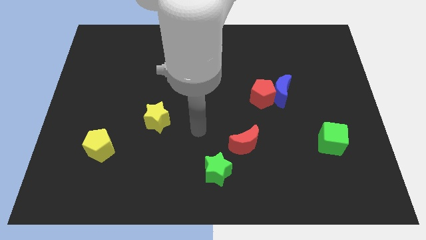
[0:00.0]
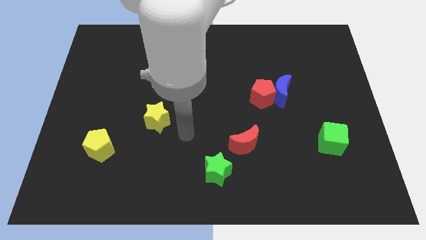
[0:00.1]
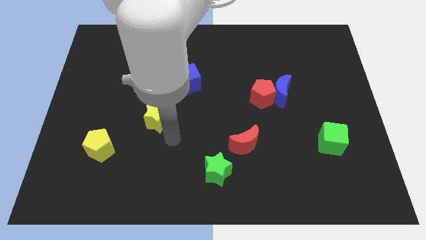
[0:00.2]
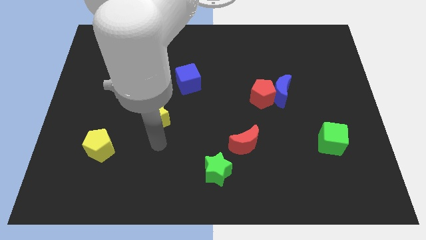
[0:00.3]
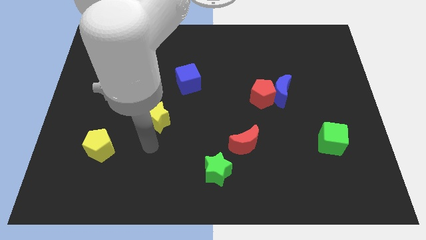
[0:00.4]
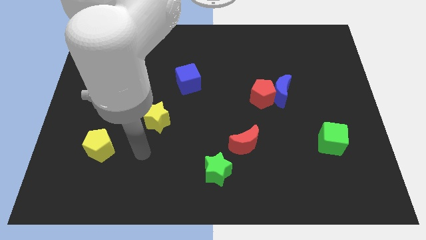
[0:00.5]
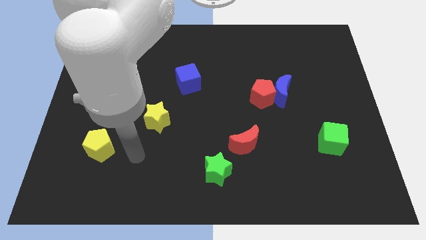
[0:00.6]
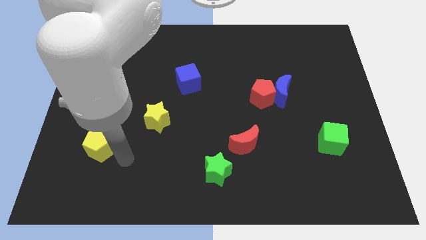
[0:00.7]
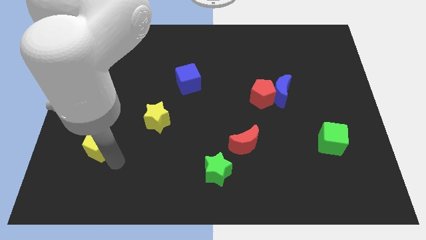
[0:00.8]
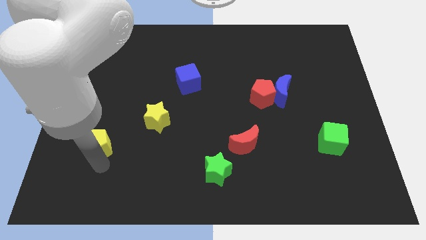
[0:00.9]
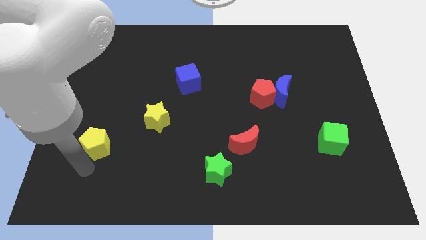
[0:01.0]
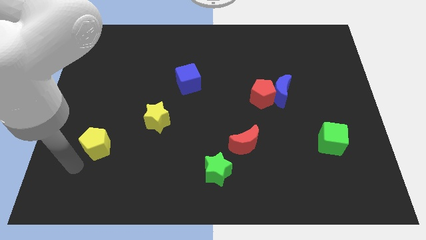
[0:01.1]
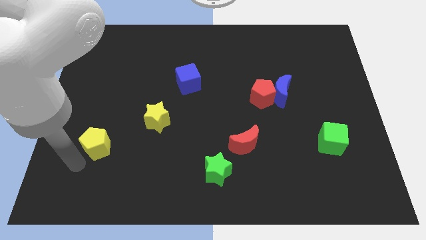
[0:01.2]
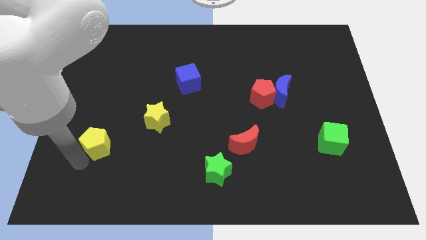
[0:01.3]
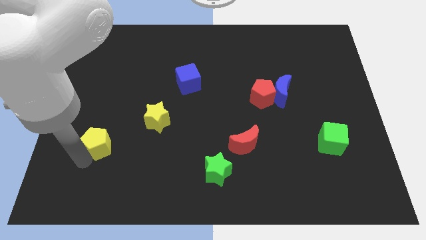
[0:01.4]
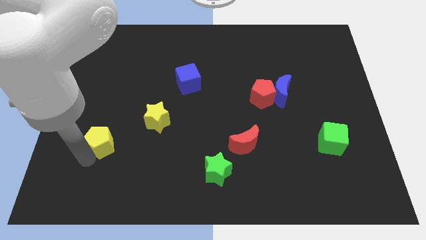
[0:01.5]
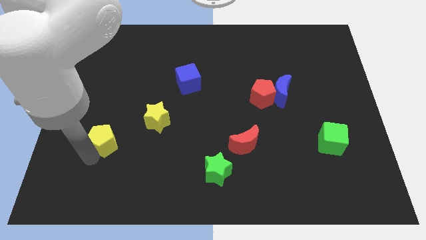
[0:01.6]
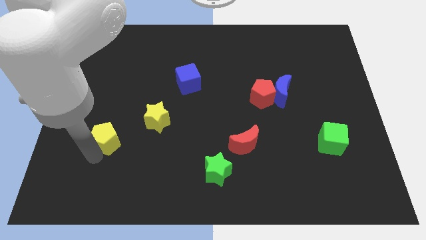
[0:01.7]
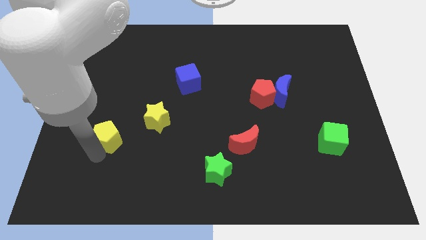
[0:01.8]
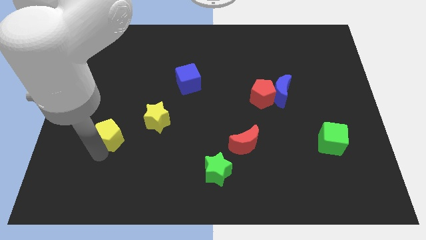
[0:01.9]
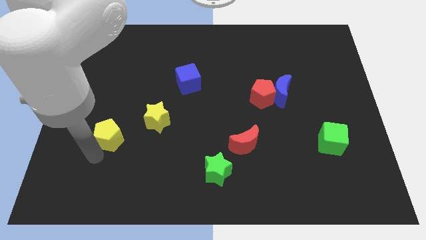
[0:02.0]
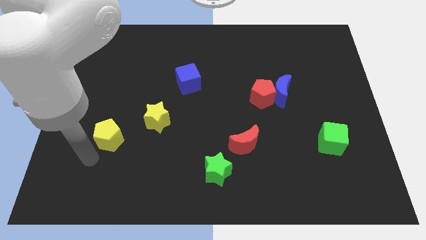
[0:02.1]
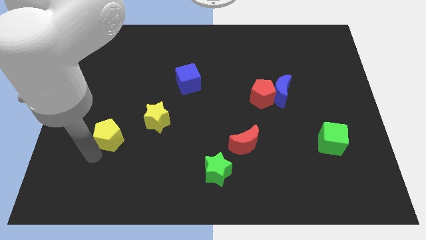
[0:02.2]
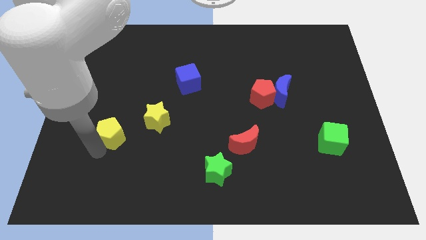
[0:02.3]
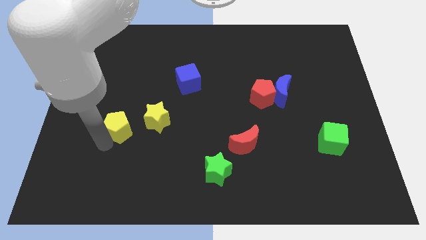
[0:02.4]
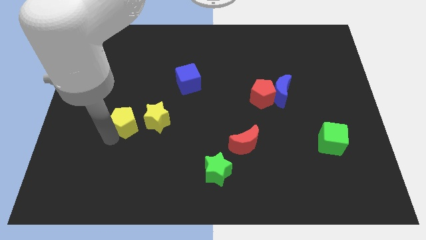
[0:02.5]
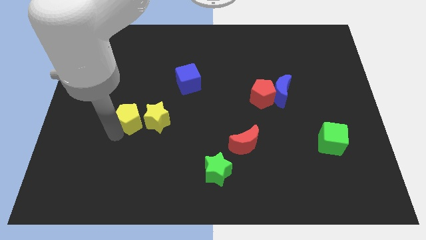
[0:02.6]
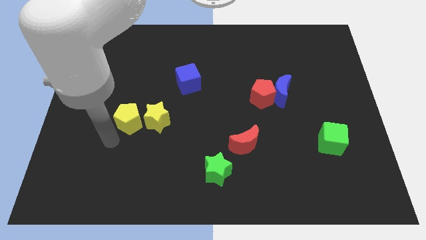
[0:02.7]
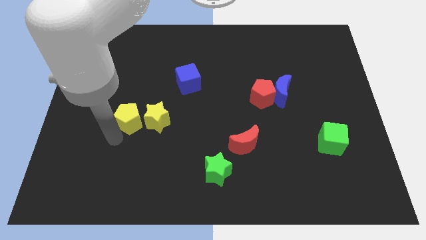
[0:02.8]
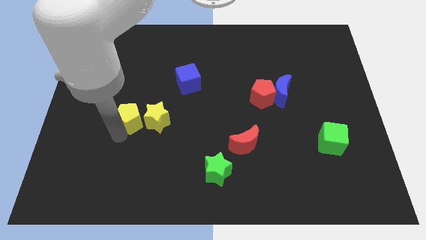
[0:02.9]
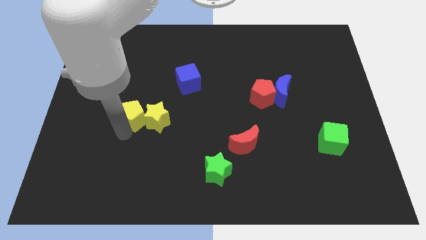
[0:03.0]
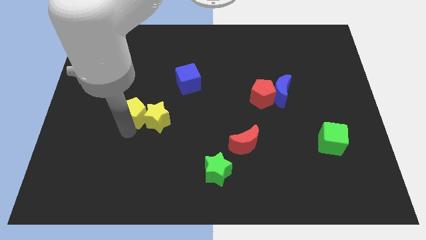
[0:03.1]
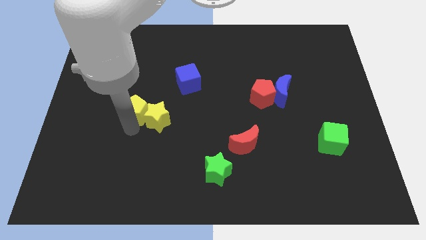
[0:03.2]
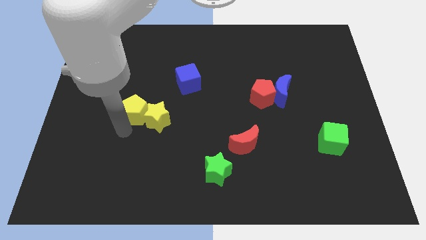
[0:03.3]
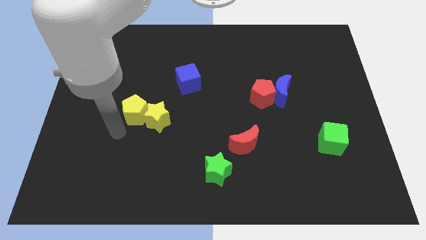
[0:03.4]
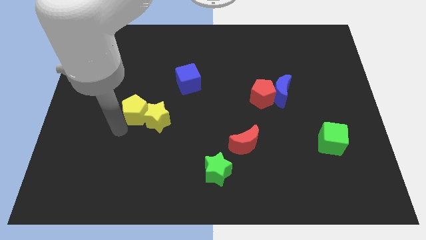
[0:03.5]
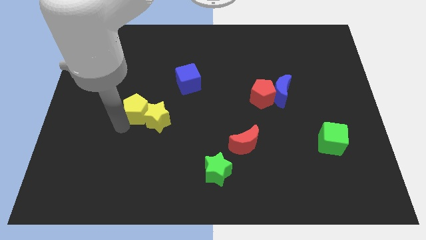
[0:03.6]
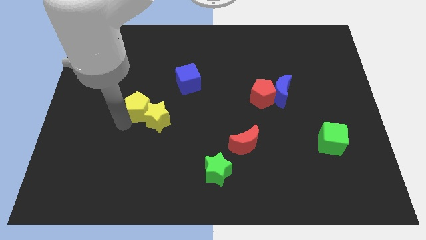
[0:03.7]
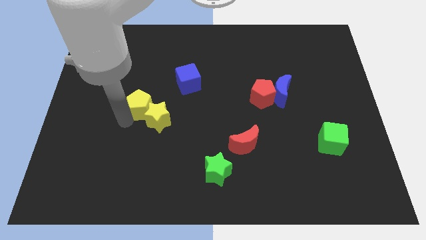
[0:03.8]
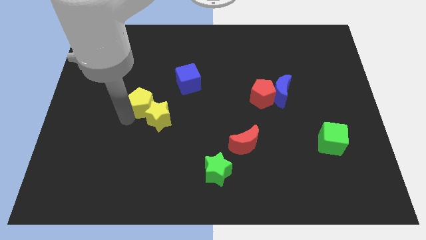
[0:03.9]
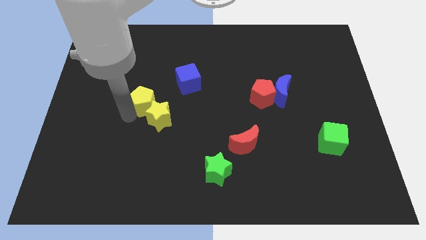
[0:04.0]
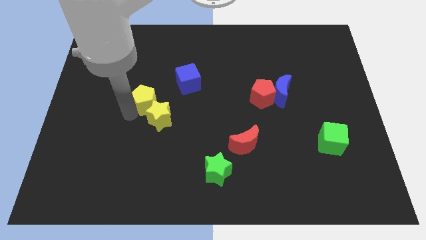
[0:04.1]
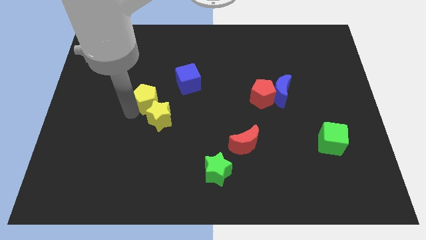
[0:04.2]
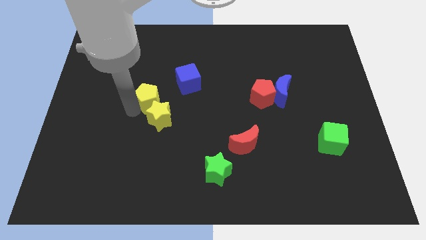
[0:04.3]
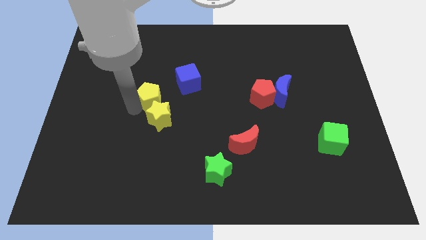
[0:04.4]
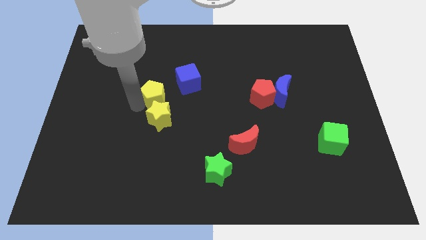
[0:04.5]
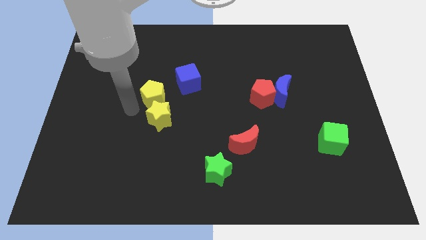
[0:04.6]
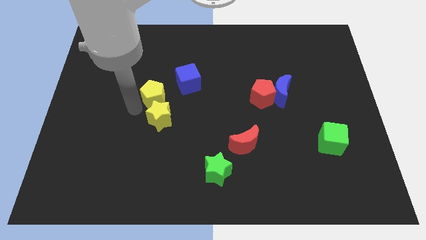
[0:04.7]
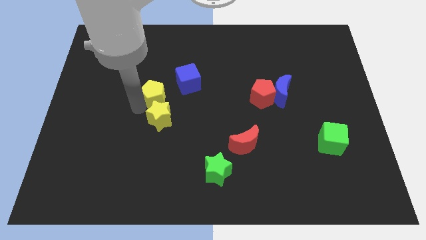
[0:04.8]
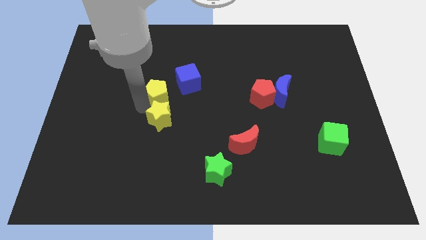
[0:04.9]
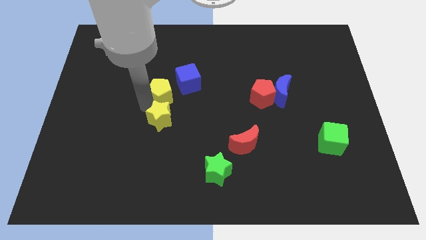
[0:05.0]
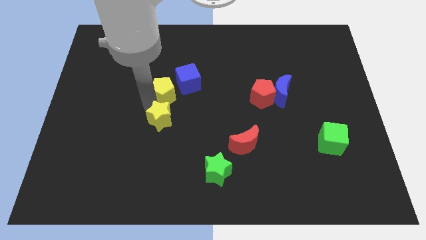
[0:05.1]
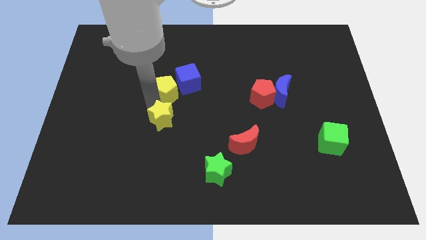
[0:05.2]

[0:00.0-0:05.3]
slide the yellow pentagon towards the blue cube

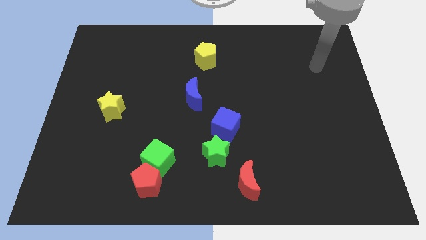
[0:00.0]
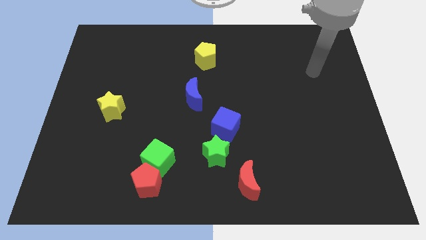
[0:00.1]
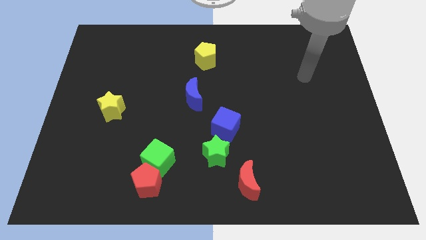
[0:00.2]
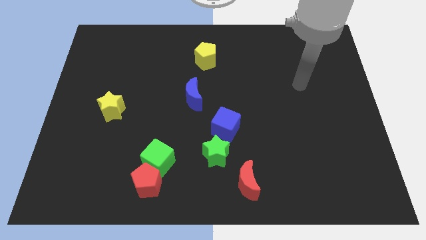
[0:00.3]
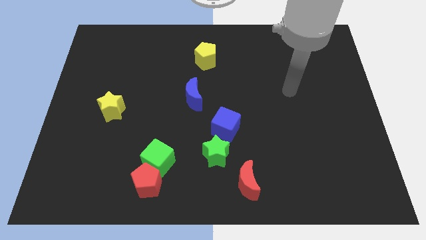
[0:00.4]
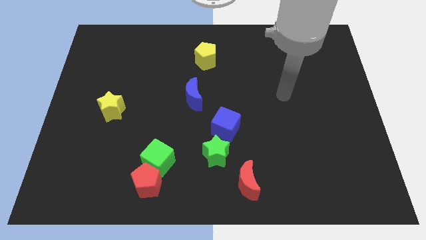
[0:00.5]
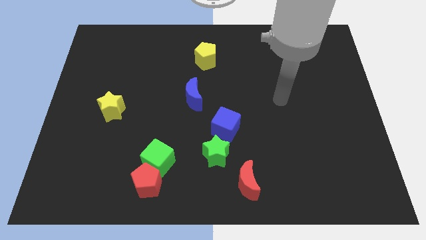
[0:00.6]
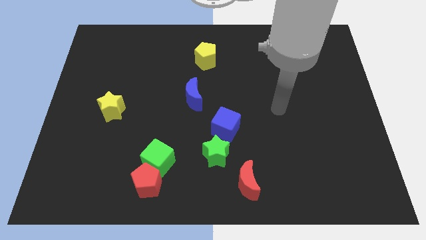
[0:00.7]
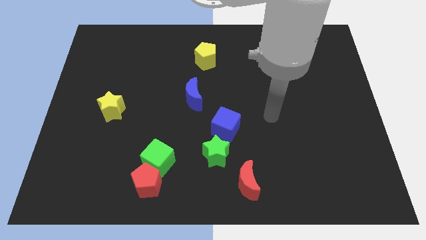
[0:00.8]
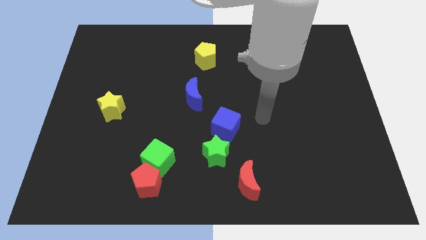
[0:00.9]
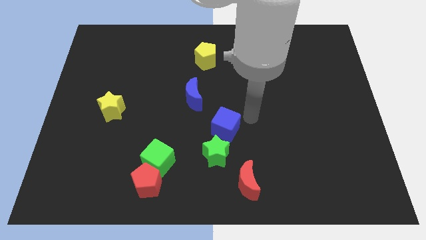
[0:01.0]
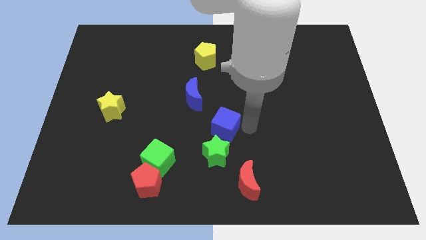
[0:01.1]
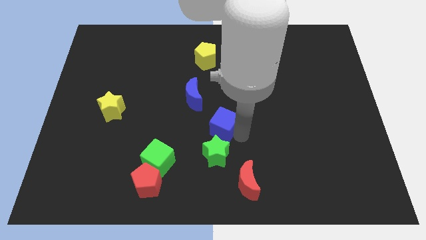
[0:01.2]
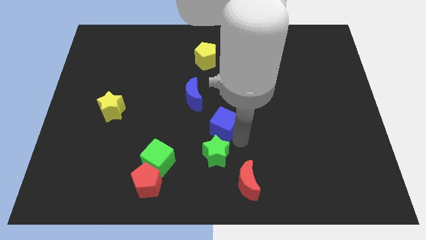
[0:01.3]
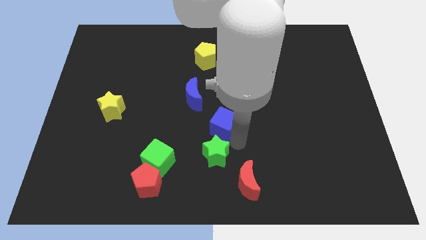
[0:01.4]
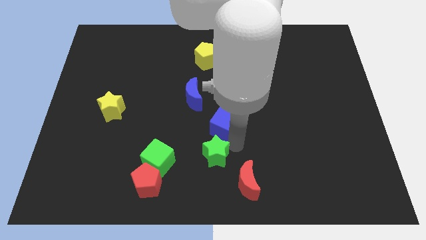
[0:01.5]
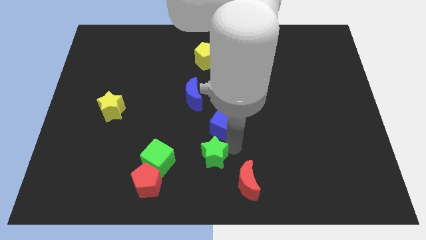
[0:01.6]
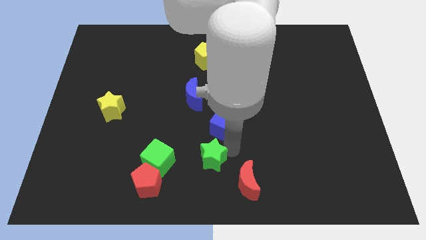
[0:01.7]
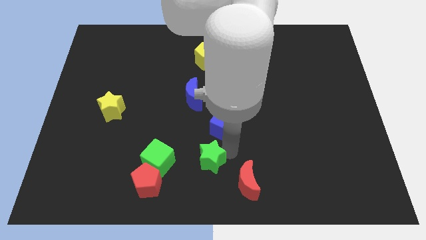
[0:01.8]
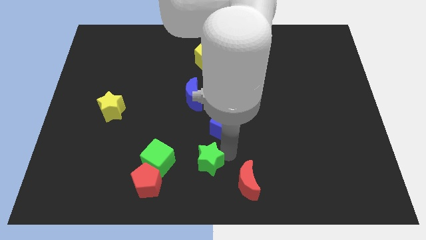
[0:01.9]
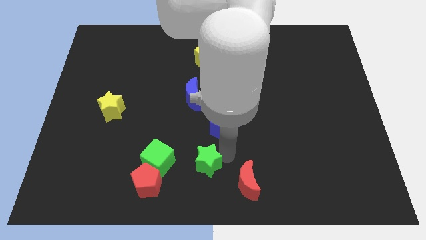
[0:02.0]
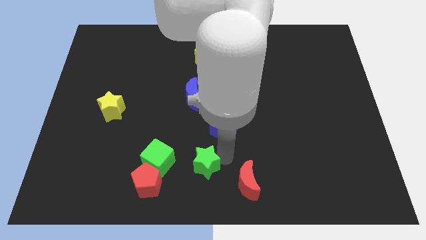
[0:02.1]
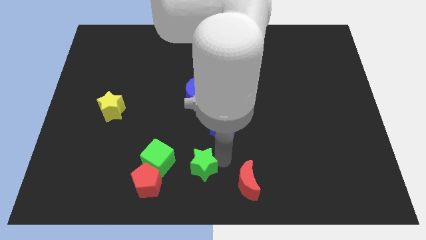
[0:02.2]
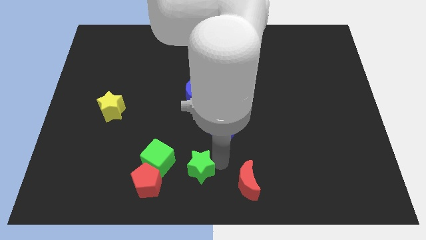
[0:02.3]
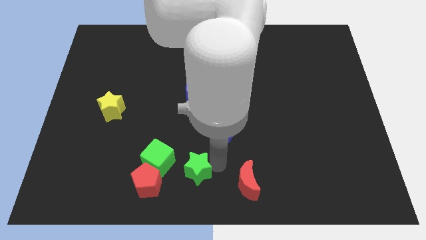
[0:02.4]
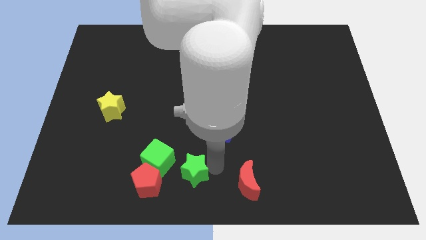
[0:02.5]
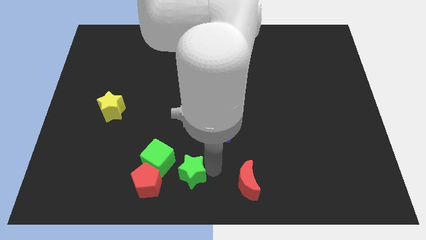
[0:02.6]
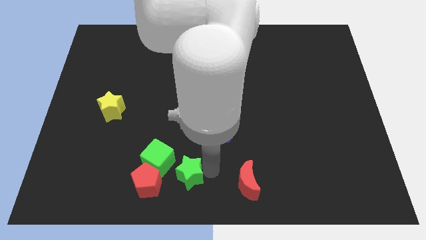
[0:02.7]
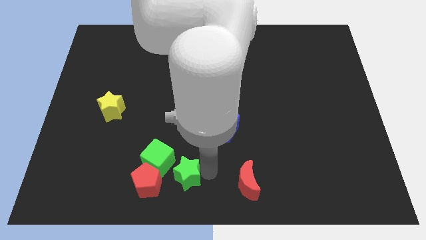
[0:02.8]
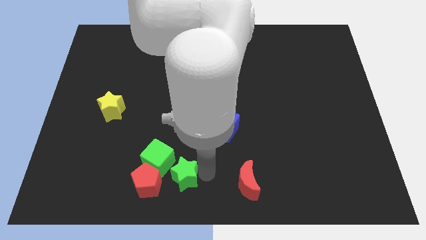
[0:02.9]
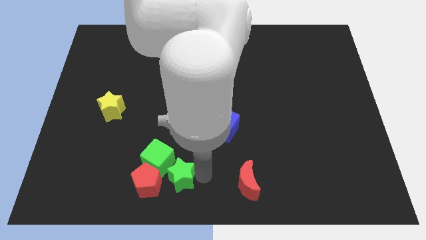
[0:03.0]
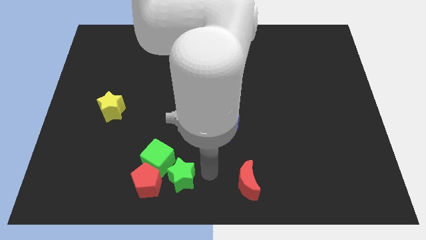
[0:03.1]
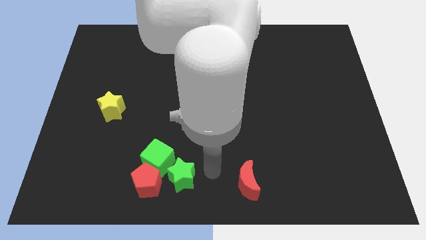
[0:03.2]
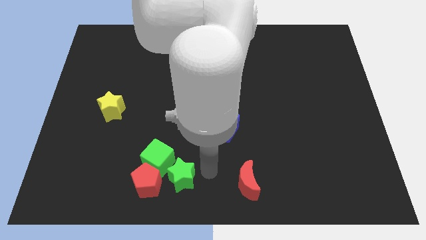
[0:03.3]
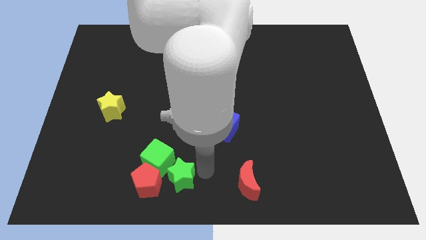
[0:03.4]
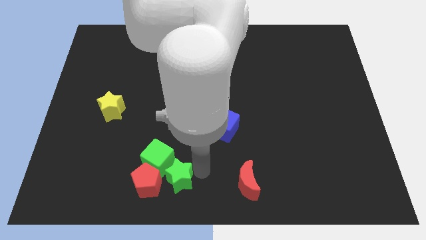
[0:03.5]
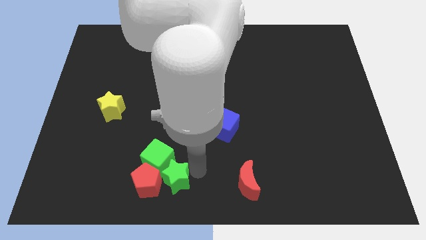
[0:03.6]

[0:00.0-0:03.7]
move the green star to the red pentagon
